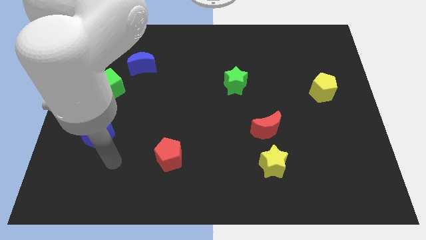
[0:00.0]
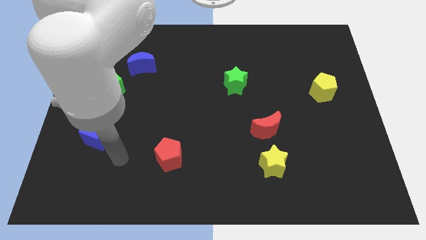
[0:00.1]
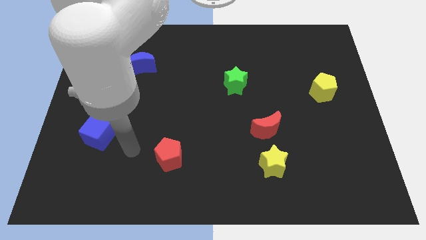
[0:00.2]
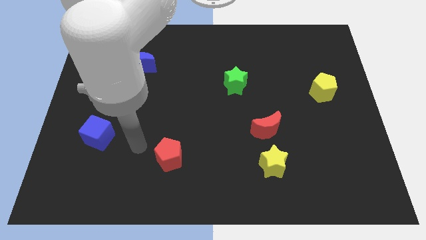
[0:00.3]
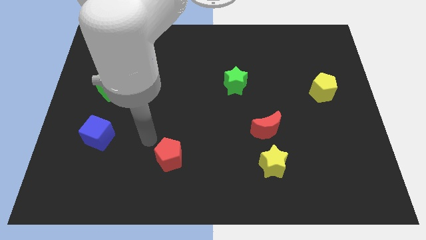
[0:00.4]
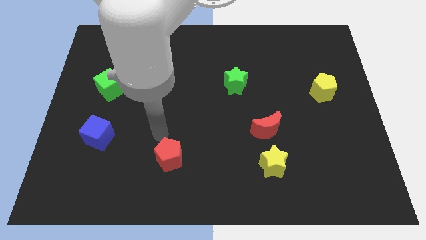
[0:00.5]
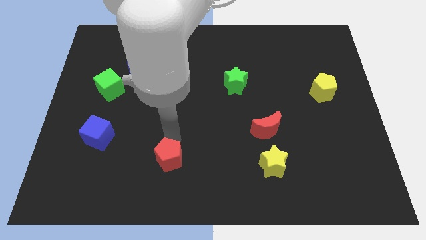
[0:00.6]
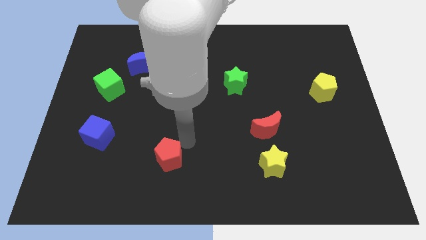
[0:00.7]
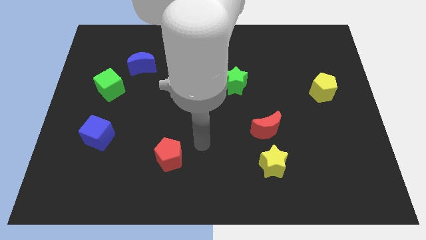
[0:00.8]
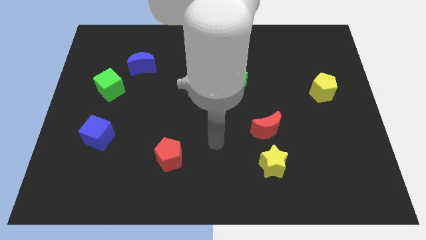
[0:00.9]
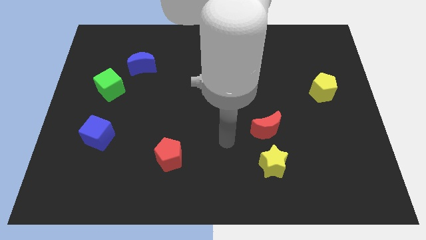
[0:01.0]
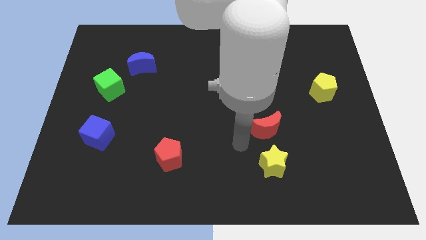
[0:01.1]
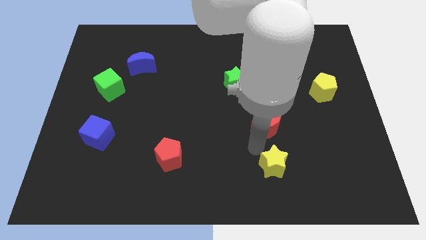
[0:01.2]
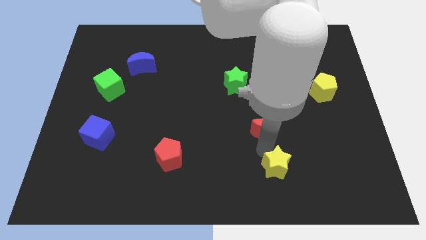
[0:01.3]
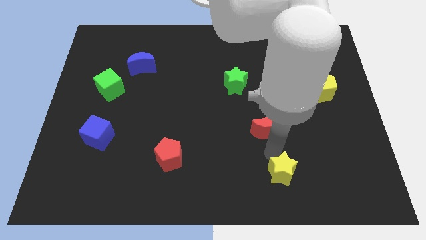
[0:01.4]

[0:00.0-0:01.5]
pull the red moon apart from the yellow star

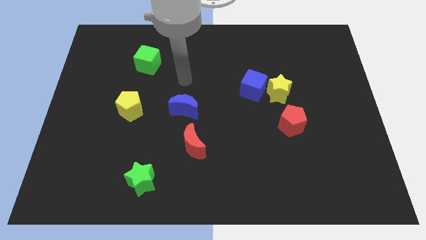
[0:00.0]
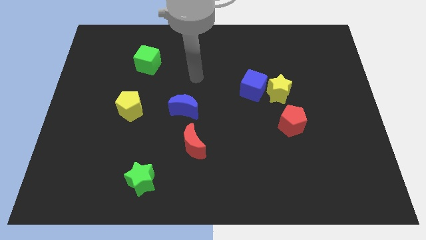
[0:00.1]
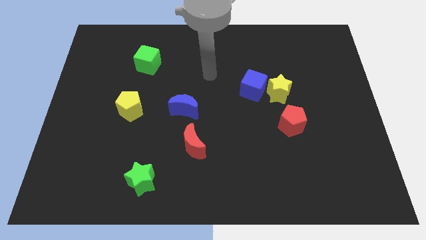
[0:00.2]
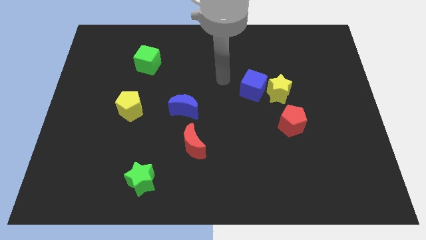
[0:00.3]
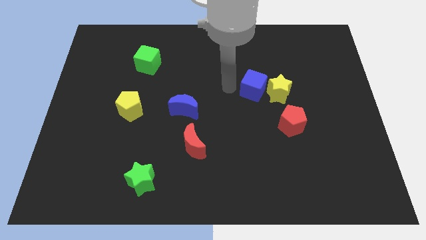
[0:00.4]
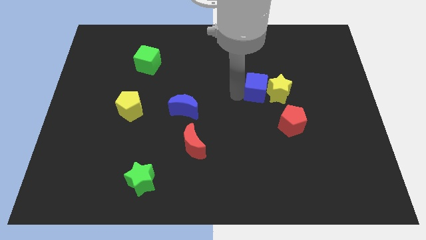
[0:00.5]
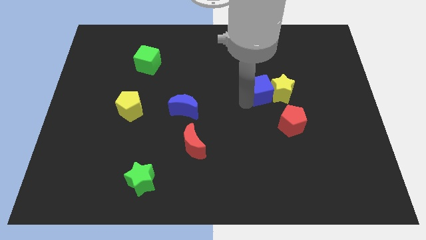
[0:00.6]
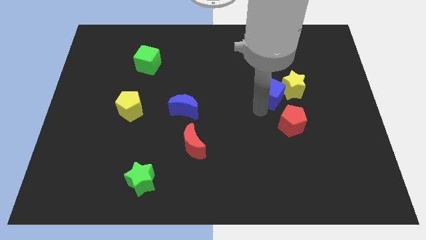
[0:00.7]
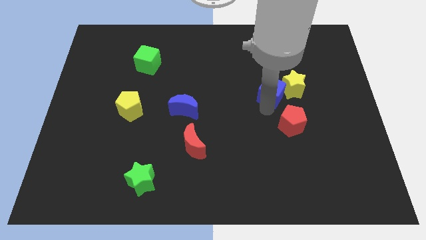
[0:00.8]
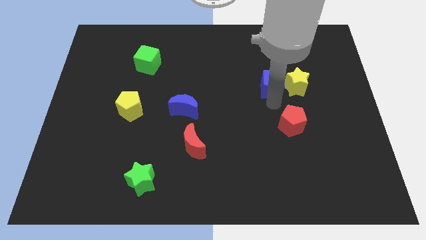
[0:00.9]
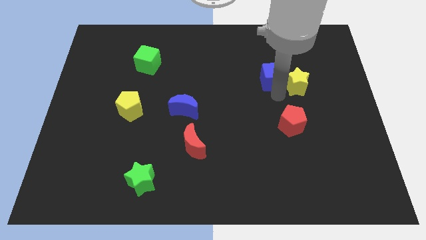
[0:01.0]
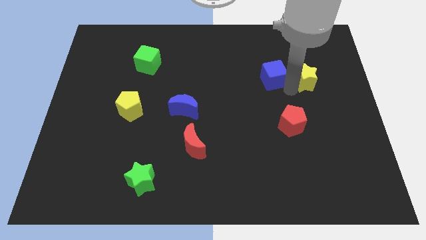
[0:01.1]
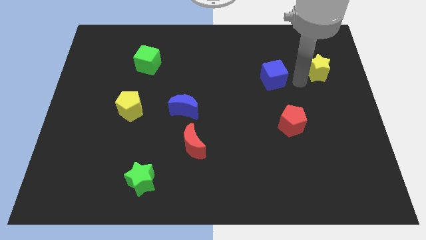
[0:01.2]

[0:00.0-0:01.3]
move the blue cube away from the yellow star

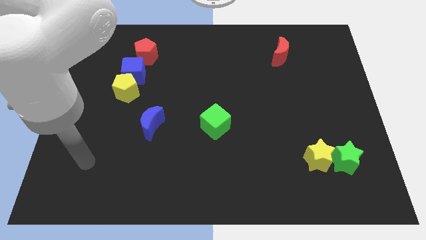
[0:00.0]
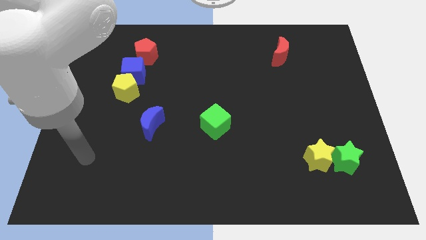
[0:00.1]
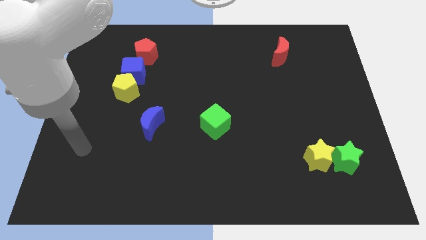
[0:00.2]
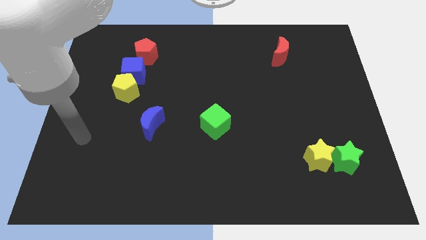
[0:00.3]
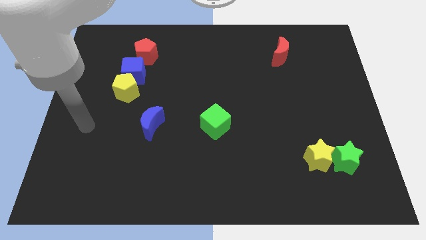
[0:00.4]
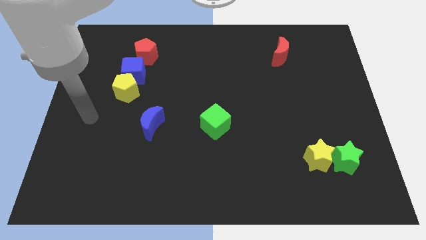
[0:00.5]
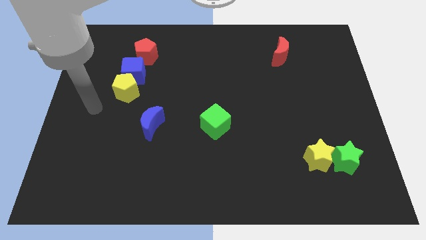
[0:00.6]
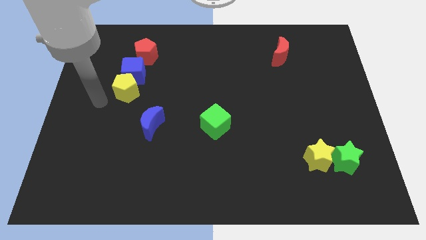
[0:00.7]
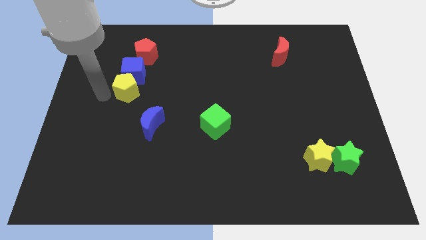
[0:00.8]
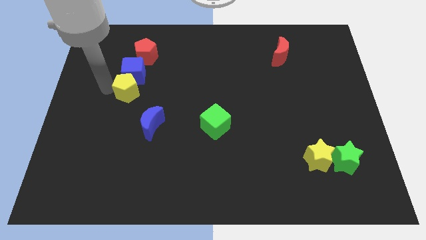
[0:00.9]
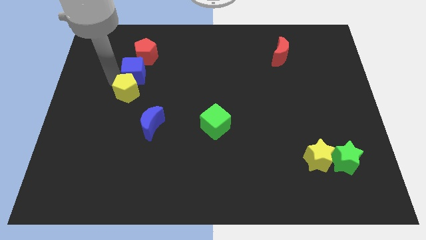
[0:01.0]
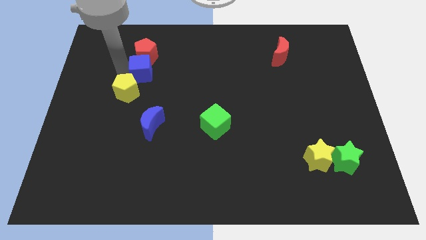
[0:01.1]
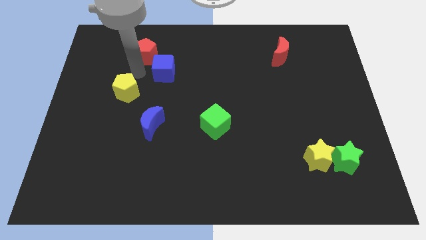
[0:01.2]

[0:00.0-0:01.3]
separate the yellow pentagon from the blue cube

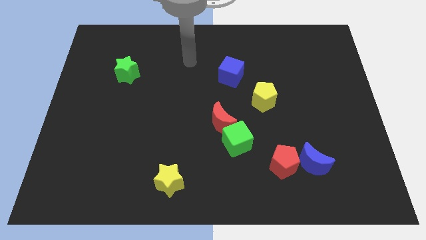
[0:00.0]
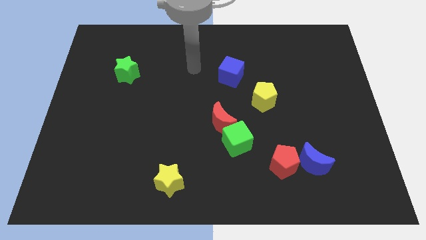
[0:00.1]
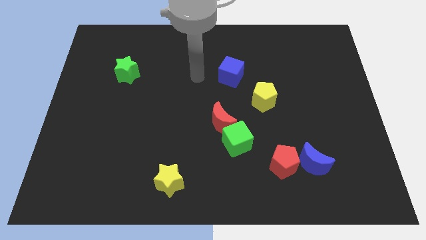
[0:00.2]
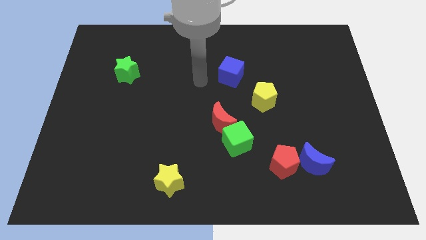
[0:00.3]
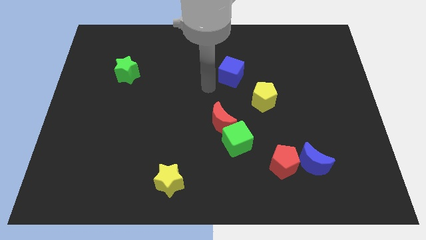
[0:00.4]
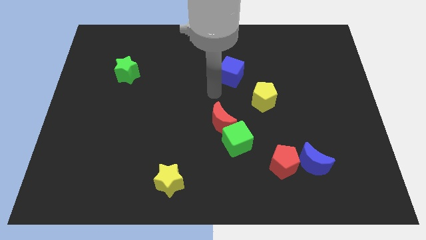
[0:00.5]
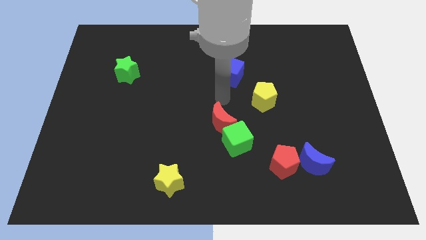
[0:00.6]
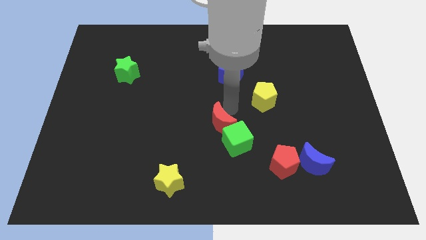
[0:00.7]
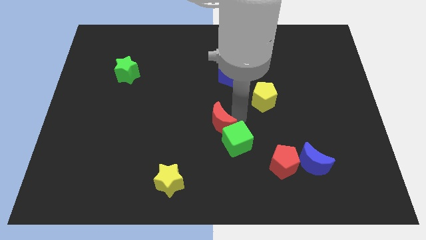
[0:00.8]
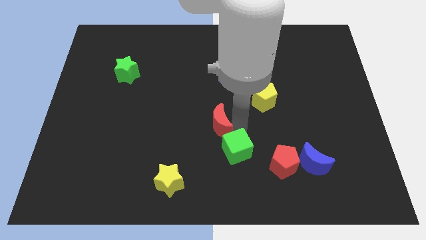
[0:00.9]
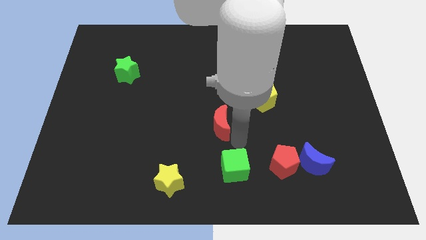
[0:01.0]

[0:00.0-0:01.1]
separate the red moon from the green cube

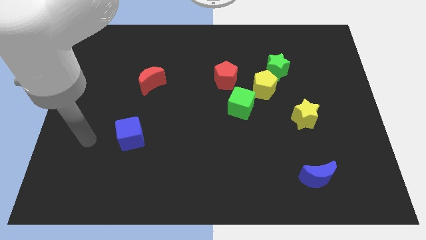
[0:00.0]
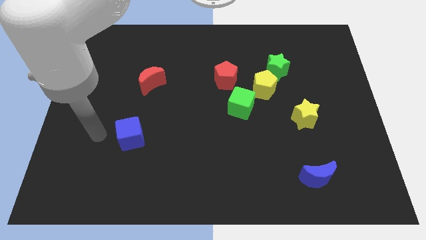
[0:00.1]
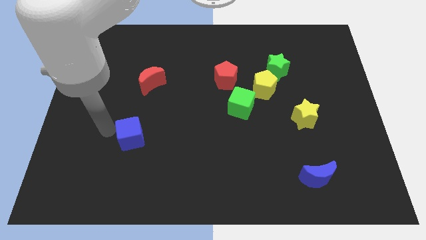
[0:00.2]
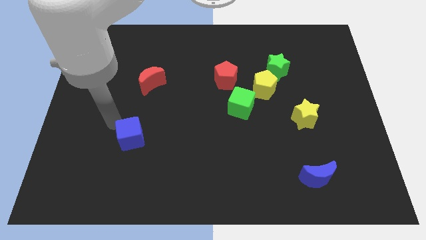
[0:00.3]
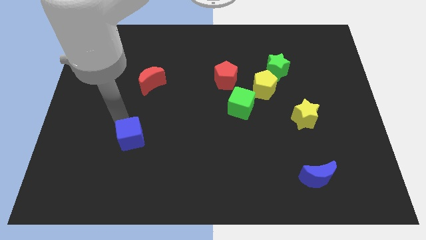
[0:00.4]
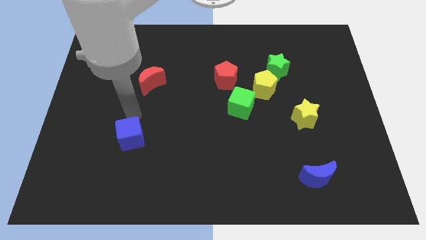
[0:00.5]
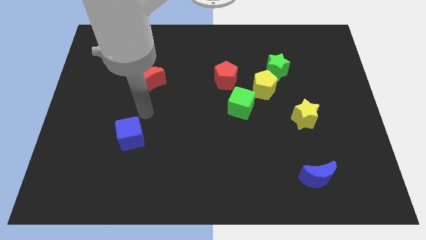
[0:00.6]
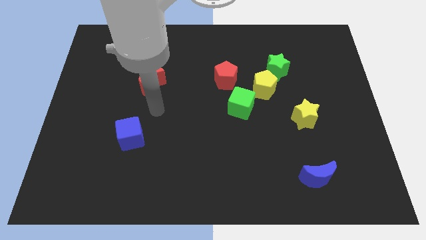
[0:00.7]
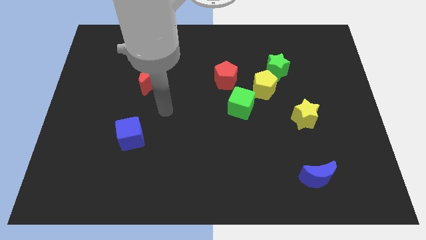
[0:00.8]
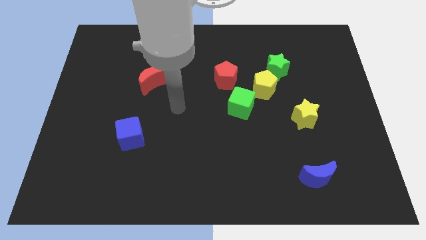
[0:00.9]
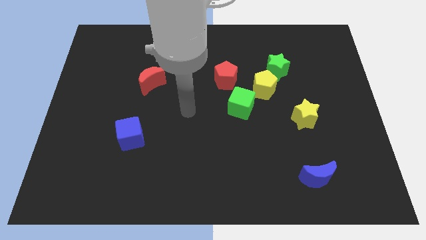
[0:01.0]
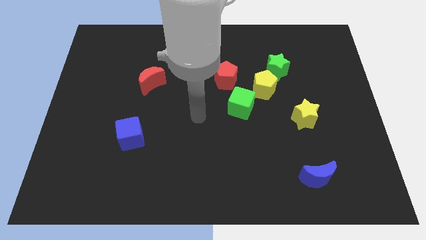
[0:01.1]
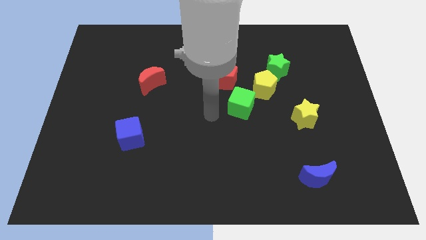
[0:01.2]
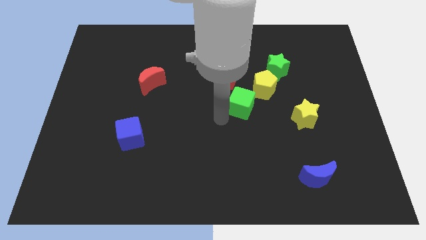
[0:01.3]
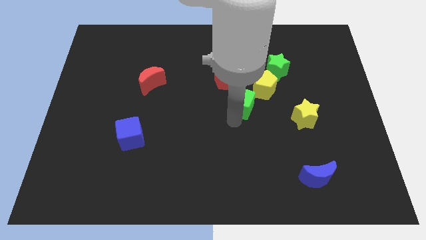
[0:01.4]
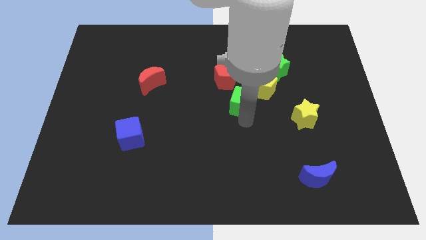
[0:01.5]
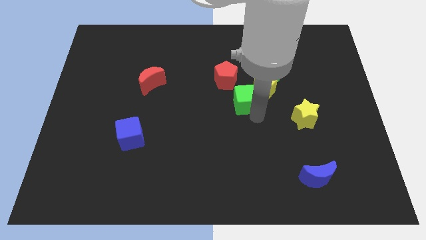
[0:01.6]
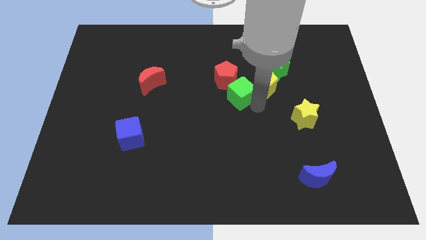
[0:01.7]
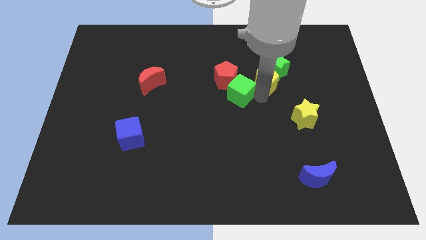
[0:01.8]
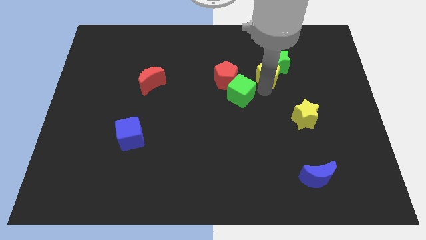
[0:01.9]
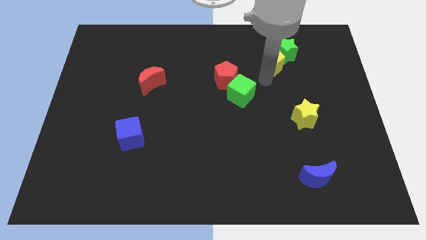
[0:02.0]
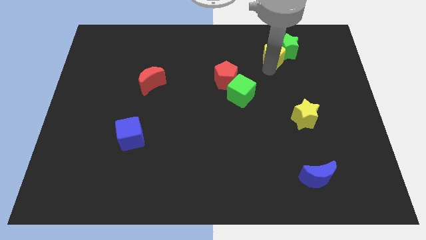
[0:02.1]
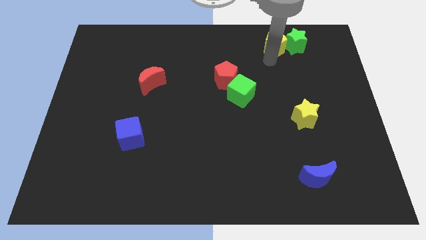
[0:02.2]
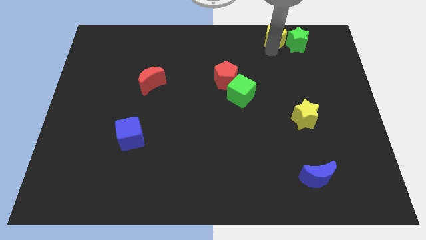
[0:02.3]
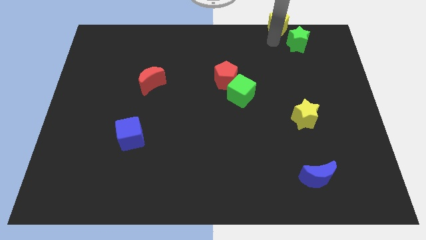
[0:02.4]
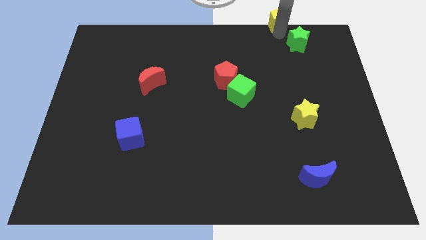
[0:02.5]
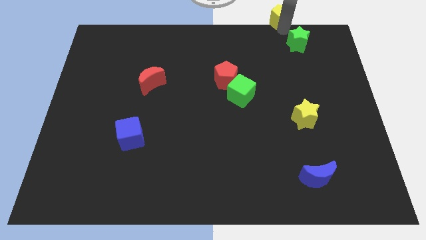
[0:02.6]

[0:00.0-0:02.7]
separate the green star from the yellow pentagon

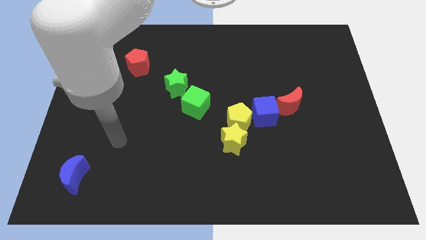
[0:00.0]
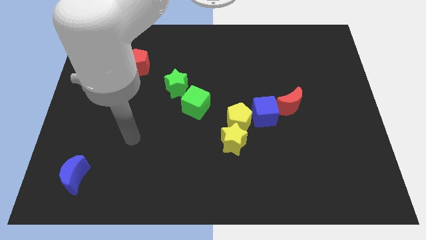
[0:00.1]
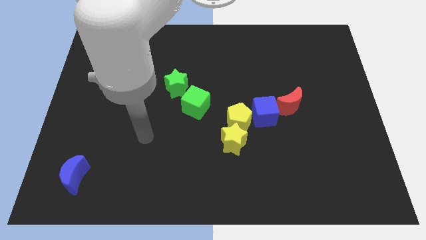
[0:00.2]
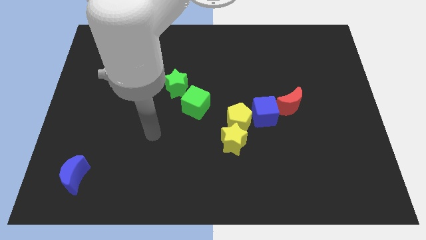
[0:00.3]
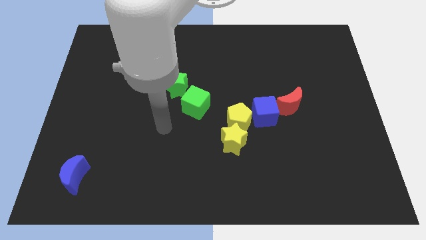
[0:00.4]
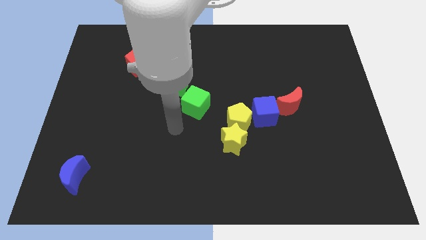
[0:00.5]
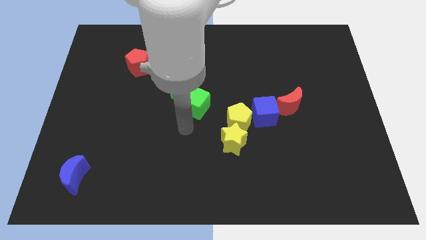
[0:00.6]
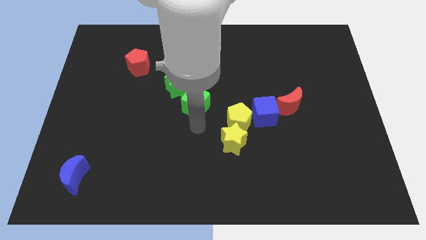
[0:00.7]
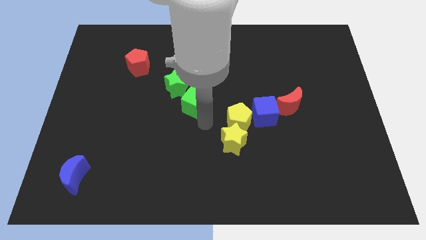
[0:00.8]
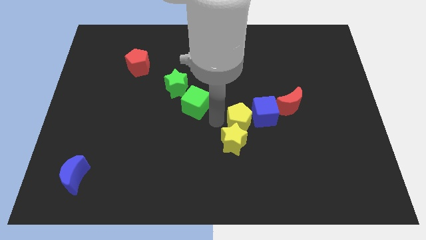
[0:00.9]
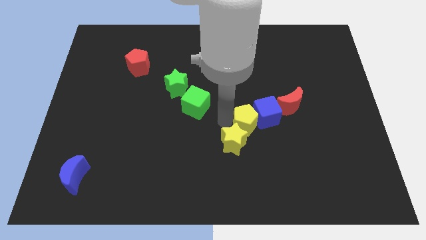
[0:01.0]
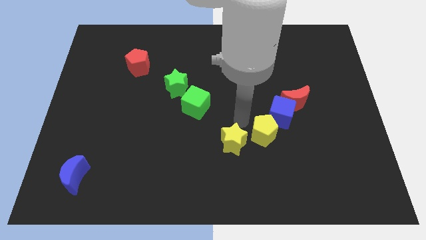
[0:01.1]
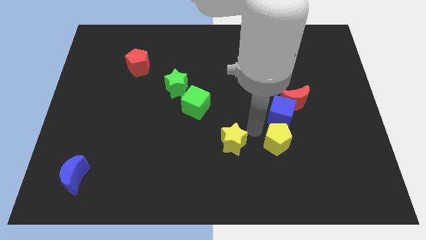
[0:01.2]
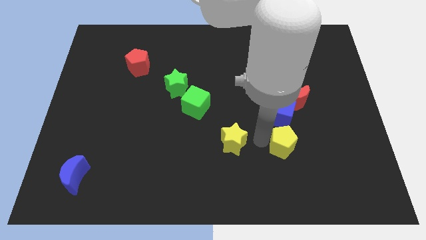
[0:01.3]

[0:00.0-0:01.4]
move the yellow star away from the yellow pentagon
